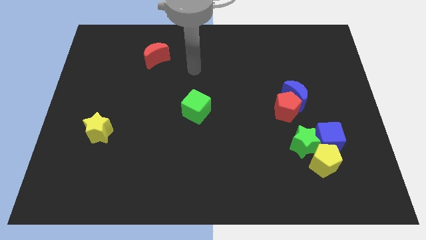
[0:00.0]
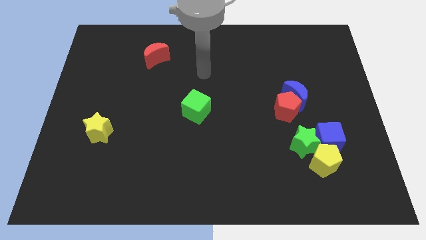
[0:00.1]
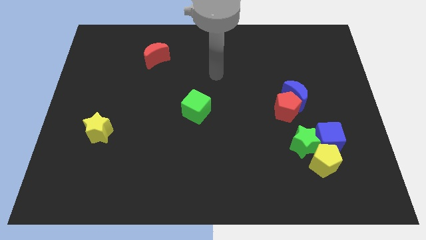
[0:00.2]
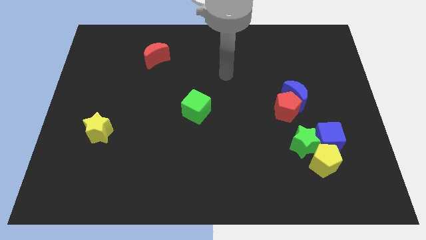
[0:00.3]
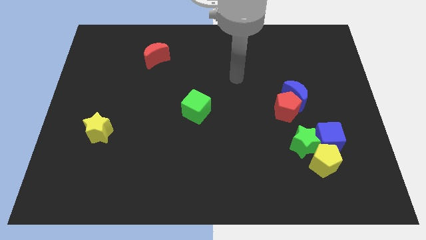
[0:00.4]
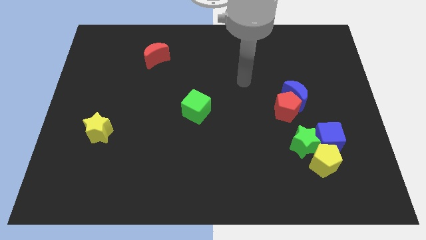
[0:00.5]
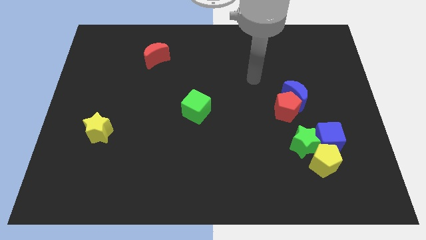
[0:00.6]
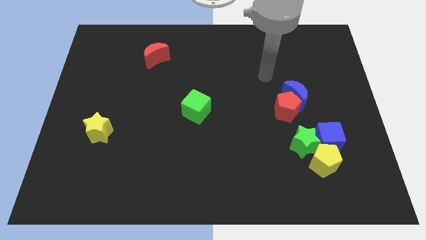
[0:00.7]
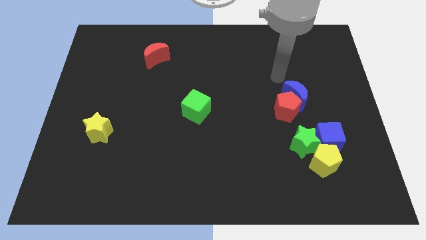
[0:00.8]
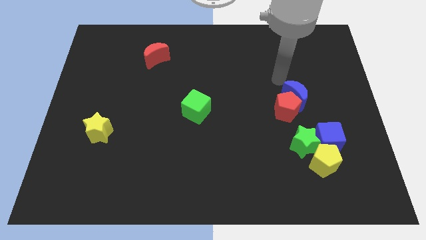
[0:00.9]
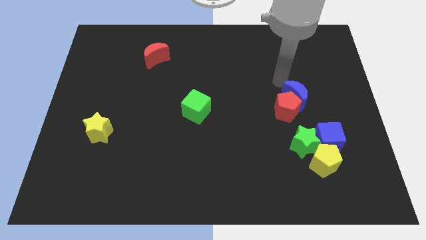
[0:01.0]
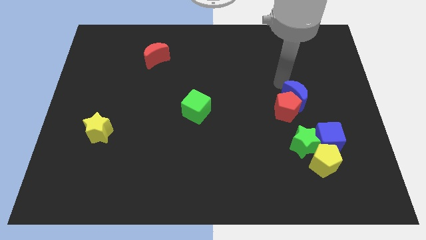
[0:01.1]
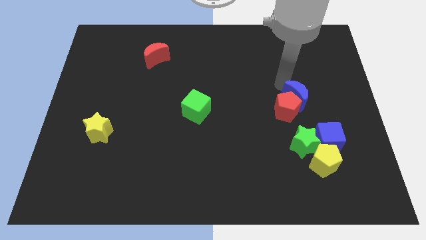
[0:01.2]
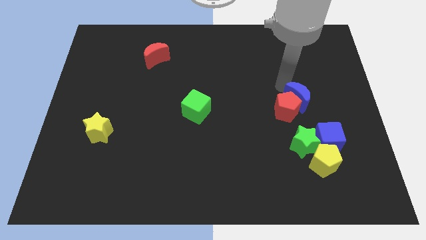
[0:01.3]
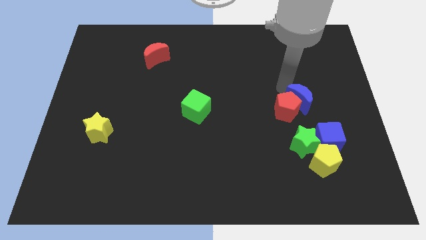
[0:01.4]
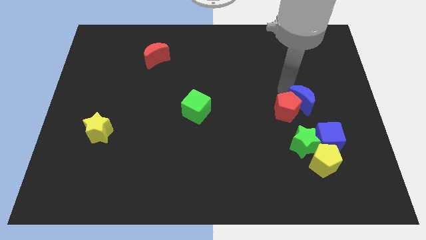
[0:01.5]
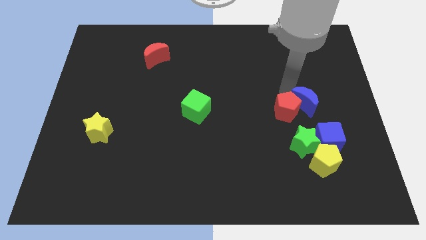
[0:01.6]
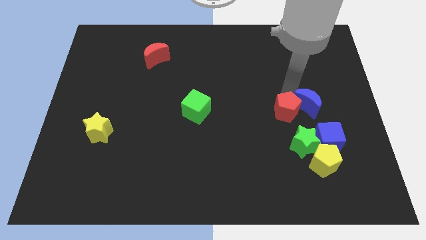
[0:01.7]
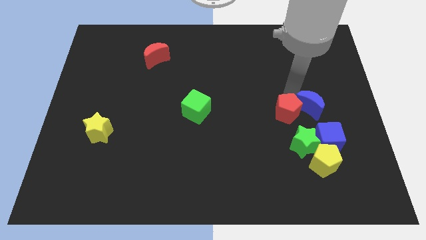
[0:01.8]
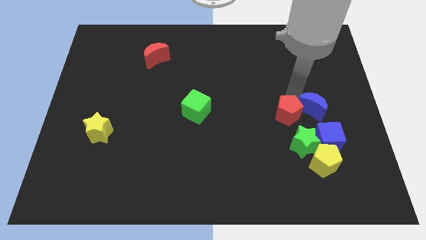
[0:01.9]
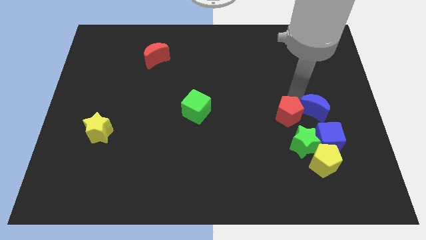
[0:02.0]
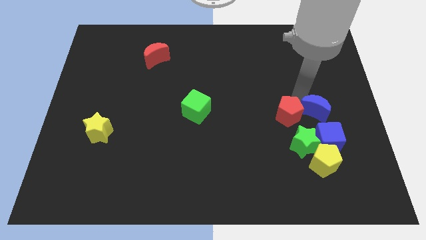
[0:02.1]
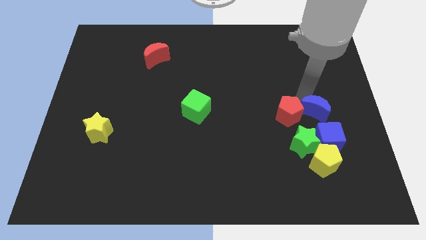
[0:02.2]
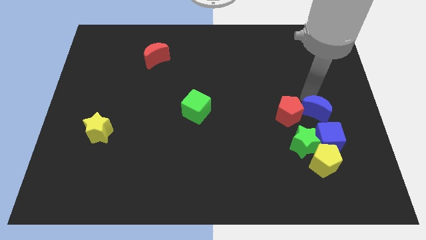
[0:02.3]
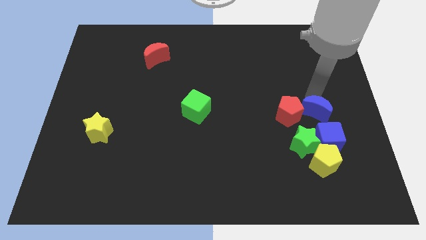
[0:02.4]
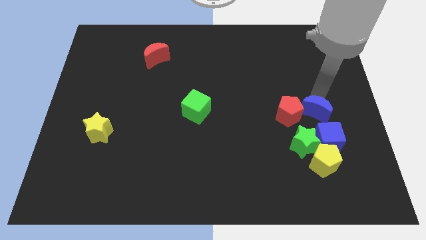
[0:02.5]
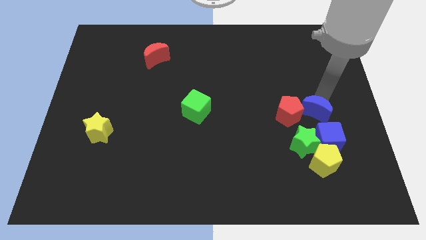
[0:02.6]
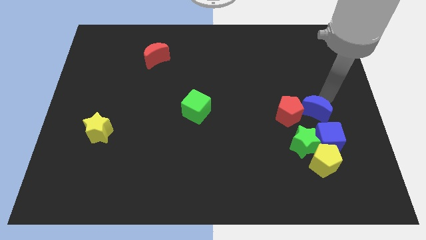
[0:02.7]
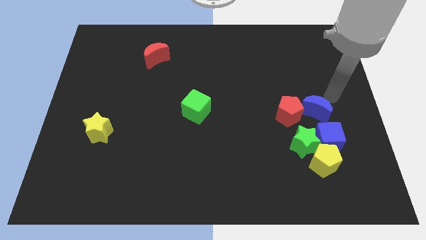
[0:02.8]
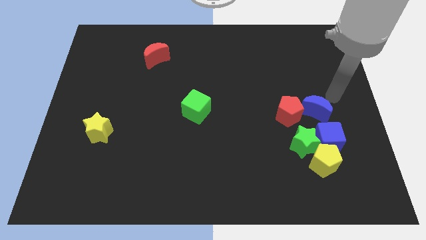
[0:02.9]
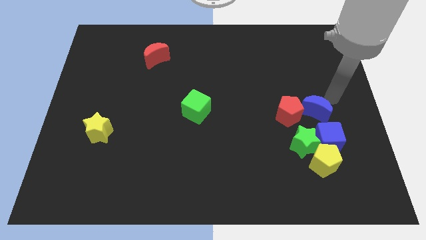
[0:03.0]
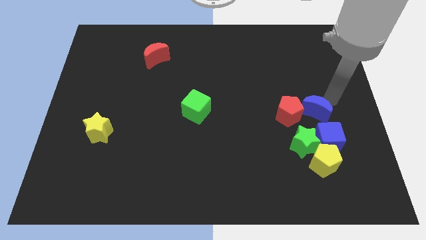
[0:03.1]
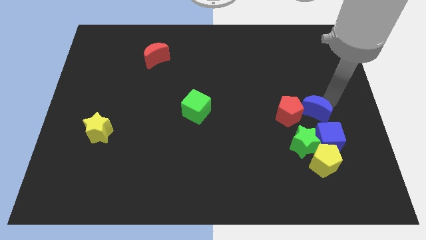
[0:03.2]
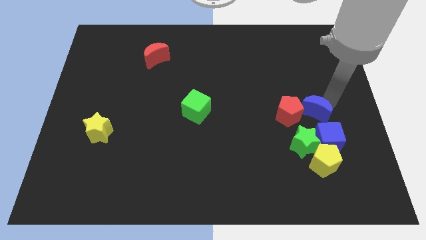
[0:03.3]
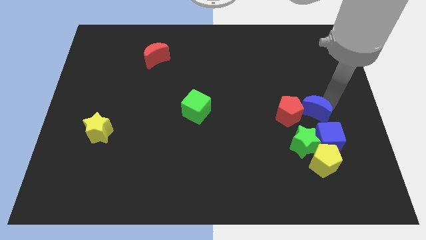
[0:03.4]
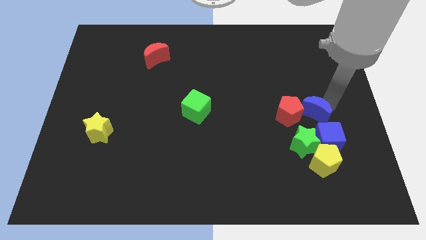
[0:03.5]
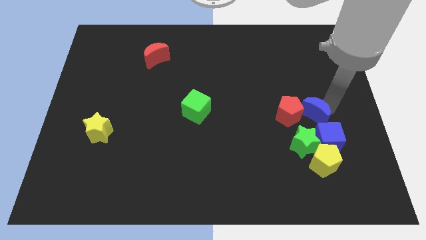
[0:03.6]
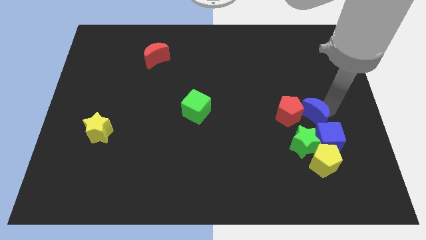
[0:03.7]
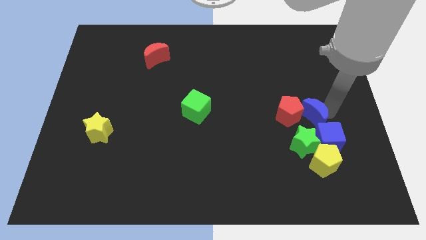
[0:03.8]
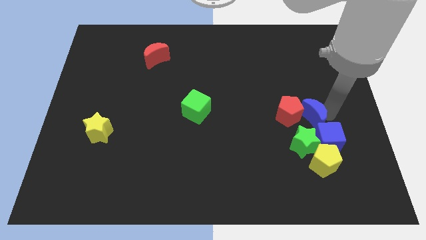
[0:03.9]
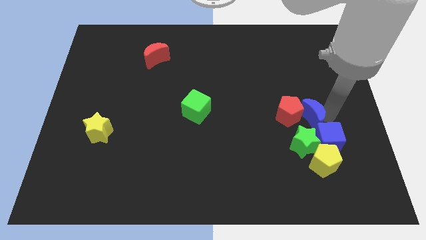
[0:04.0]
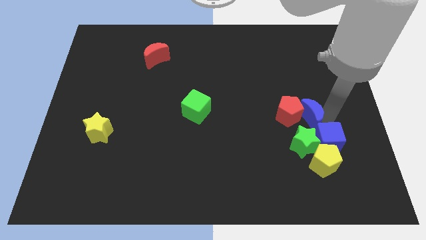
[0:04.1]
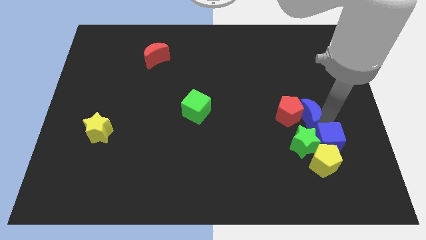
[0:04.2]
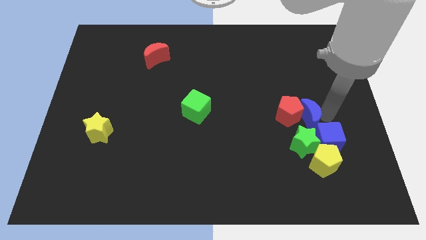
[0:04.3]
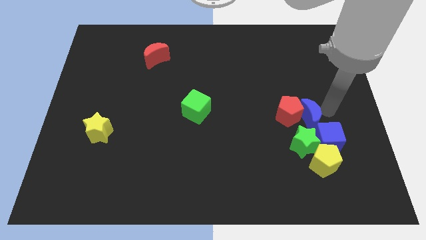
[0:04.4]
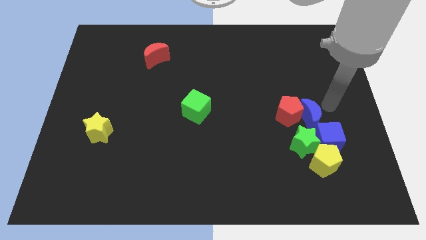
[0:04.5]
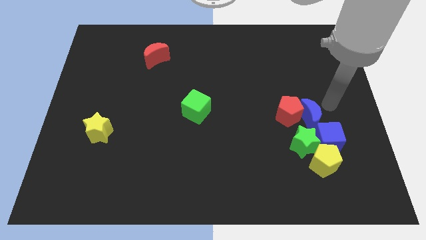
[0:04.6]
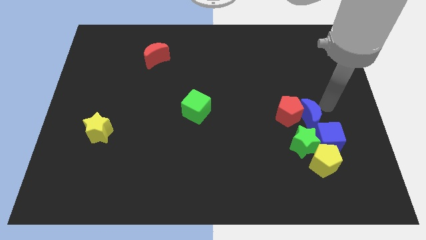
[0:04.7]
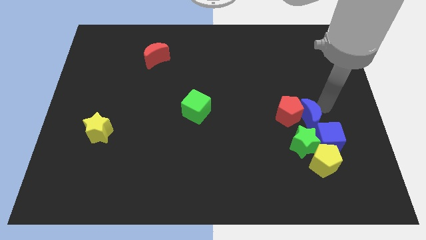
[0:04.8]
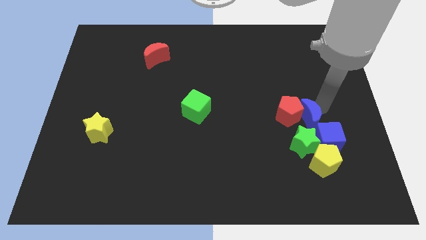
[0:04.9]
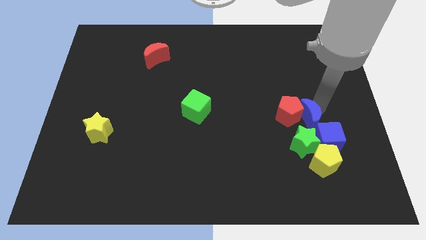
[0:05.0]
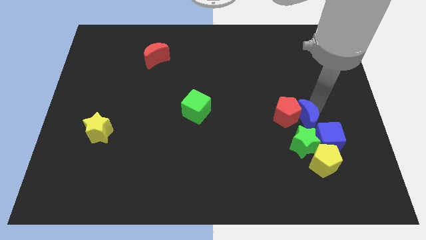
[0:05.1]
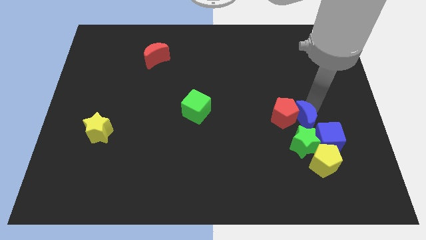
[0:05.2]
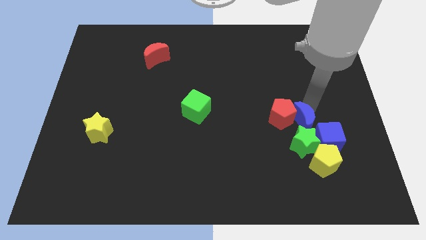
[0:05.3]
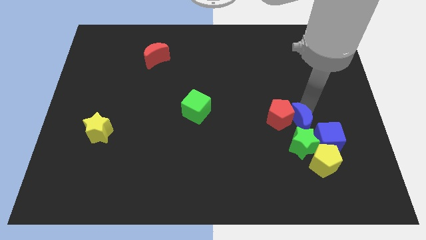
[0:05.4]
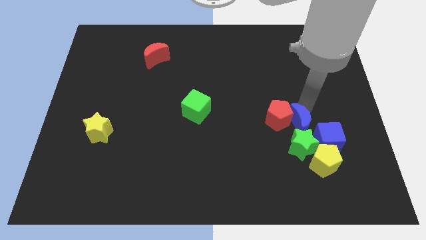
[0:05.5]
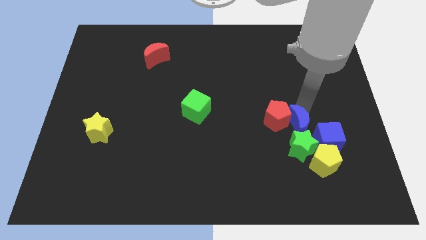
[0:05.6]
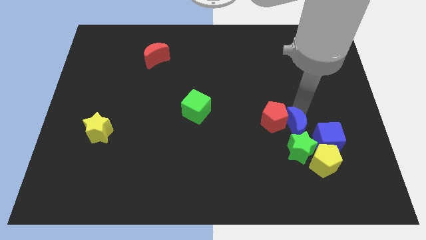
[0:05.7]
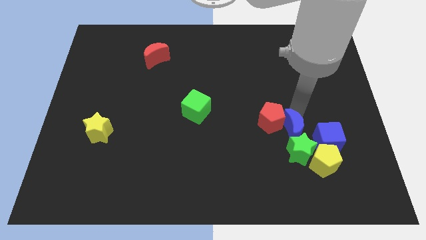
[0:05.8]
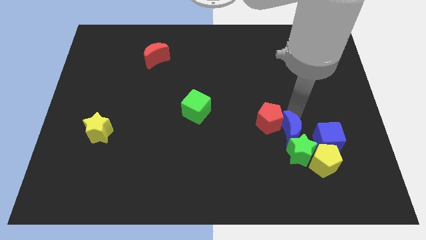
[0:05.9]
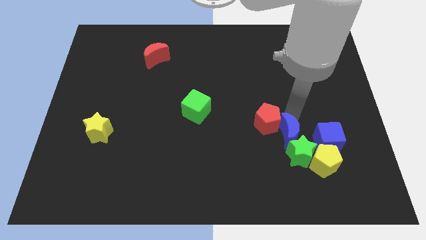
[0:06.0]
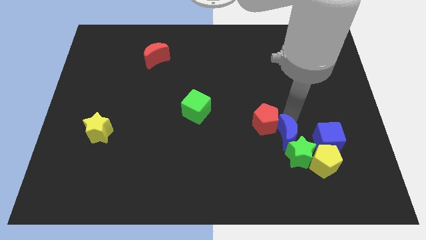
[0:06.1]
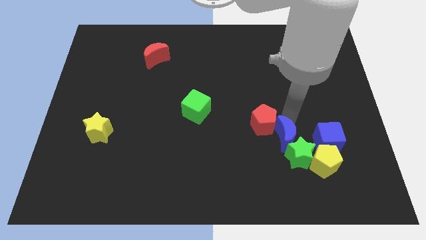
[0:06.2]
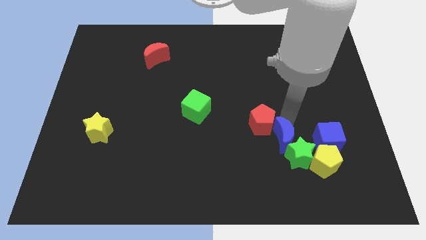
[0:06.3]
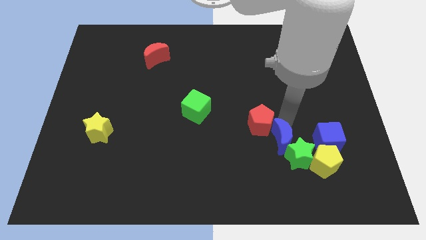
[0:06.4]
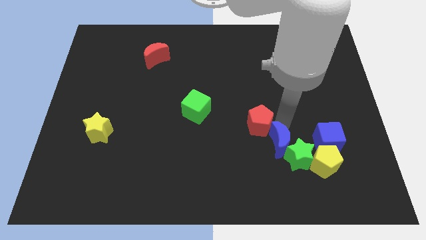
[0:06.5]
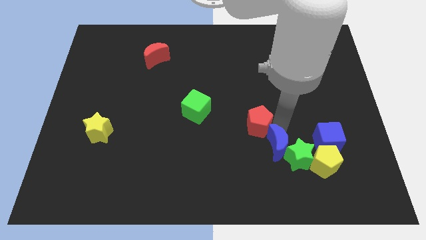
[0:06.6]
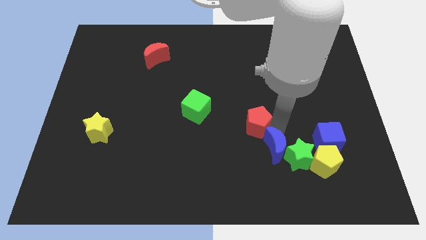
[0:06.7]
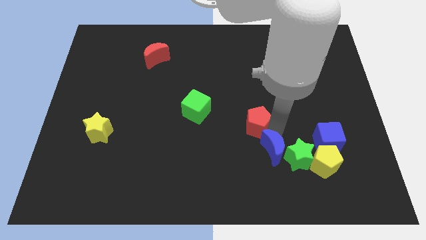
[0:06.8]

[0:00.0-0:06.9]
put the blue moon diagonally down and to the left of the green star

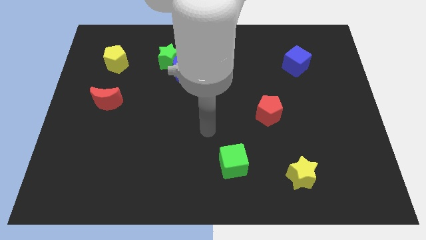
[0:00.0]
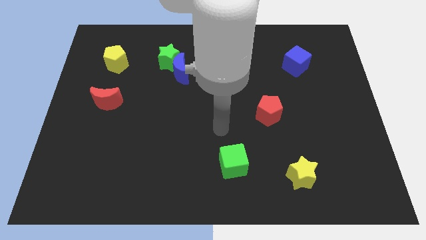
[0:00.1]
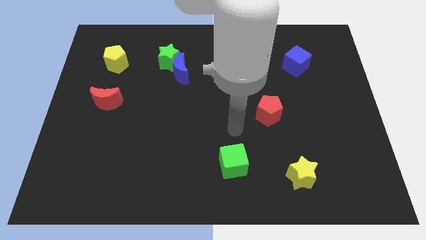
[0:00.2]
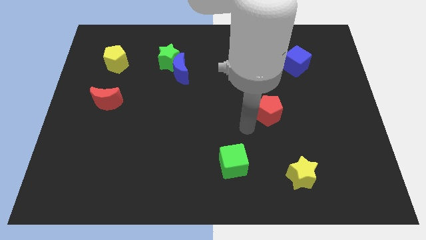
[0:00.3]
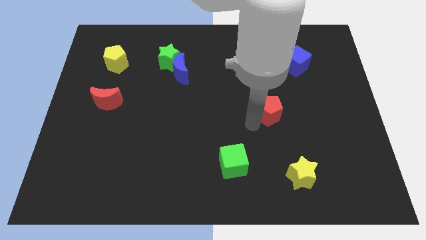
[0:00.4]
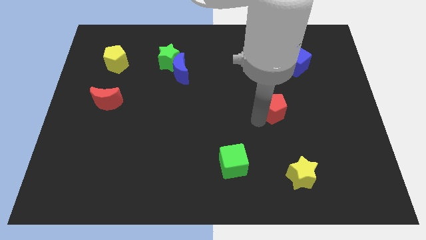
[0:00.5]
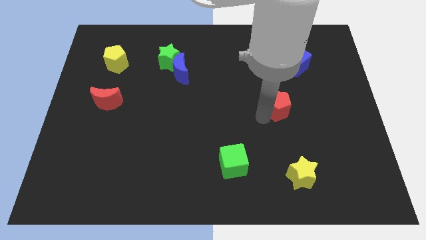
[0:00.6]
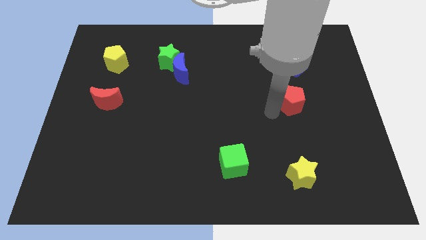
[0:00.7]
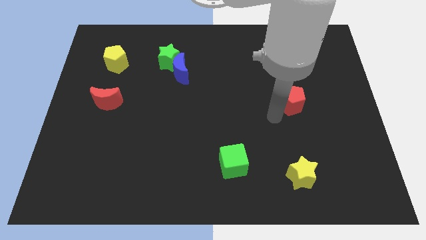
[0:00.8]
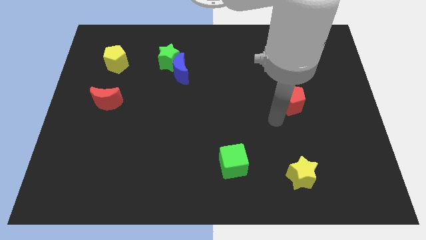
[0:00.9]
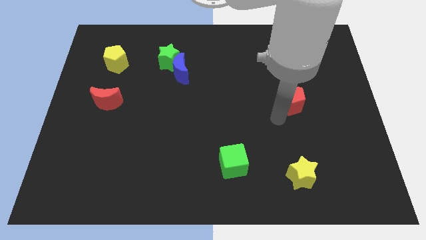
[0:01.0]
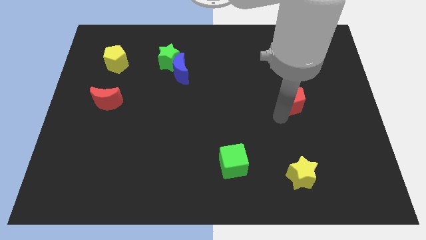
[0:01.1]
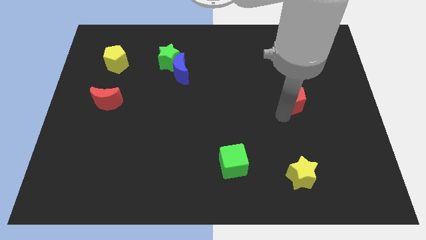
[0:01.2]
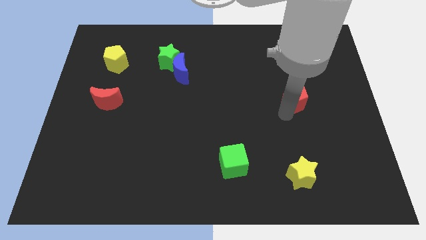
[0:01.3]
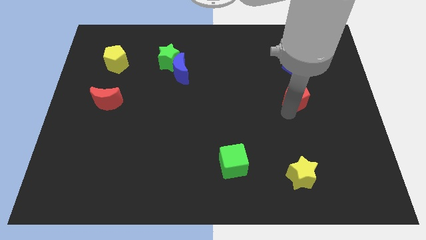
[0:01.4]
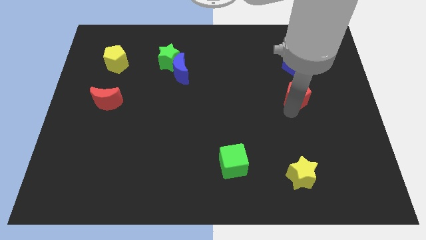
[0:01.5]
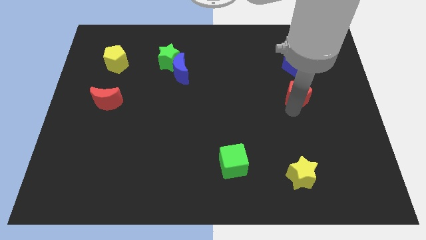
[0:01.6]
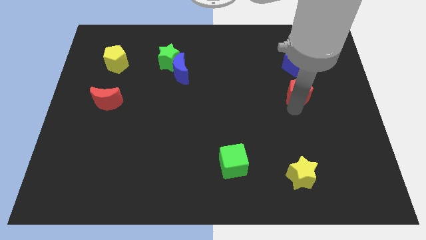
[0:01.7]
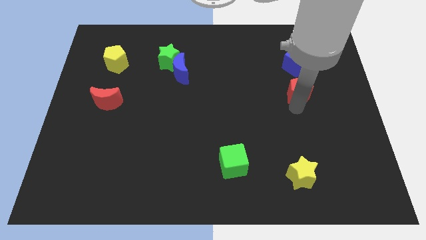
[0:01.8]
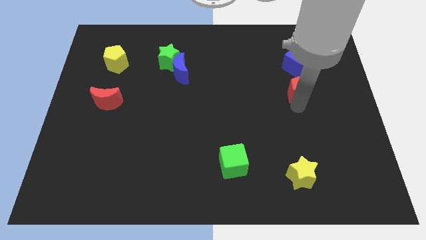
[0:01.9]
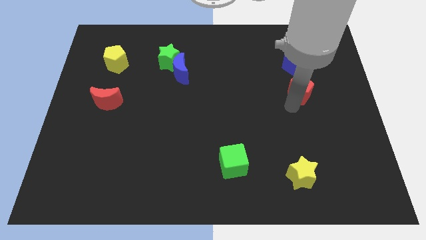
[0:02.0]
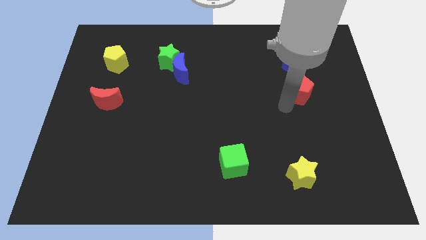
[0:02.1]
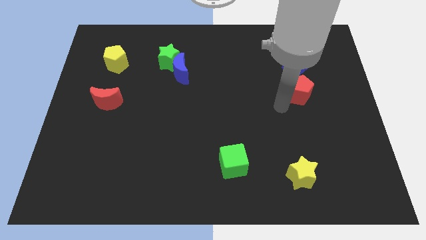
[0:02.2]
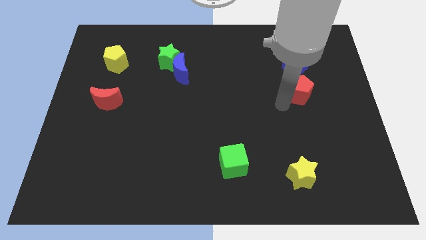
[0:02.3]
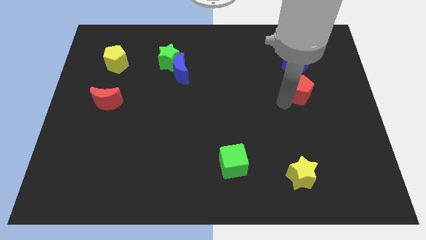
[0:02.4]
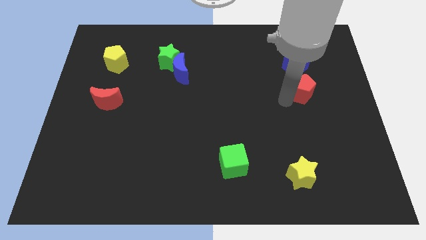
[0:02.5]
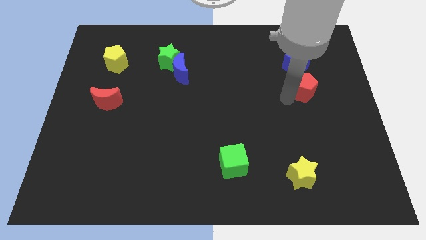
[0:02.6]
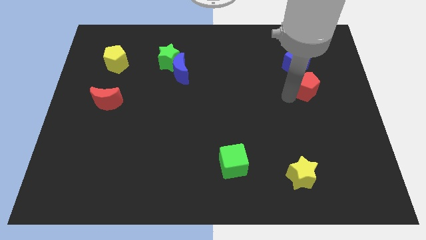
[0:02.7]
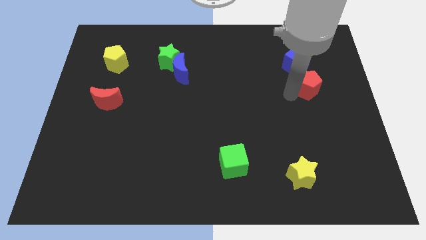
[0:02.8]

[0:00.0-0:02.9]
push the red pentagon to the bottom right side of the blue cube
